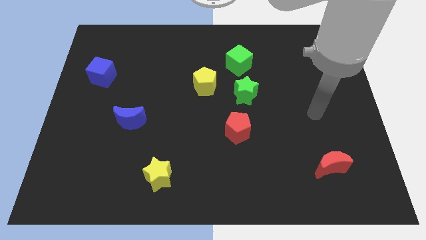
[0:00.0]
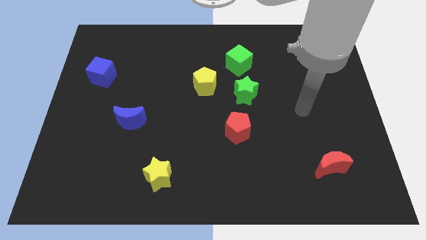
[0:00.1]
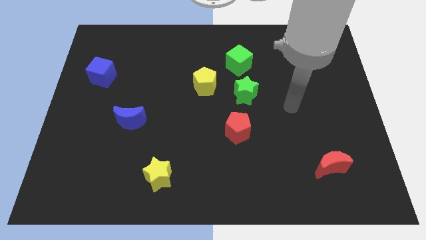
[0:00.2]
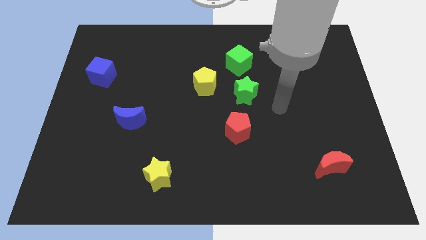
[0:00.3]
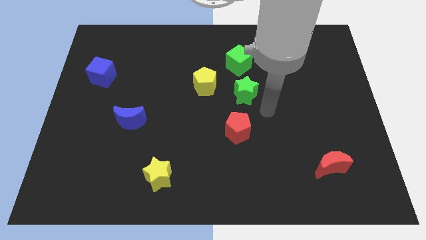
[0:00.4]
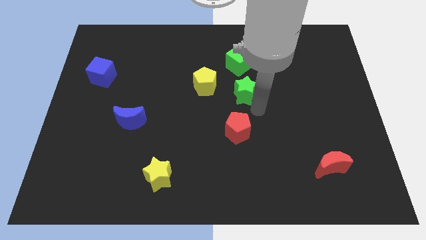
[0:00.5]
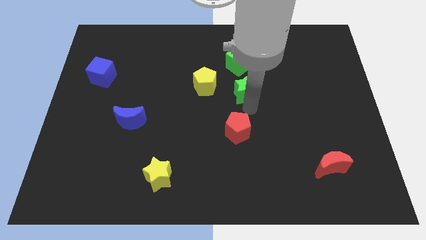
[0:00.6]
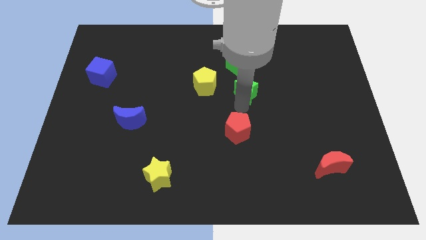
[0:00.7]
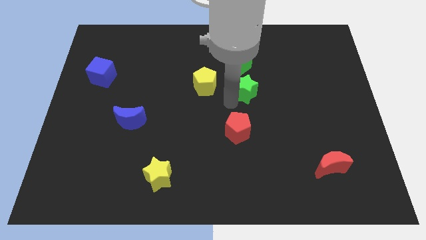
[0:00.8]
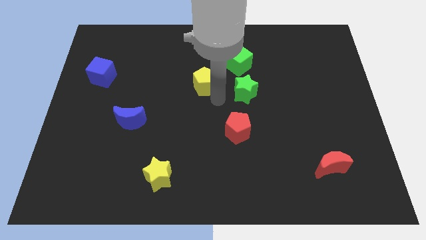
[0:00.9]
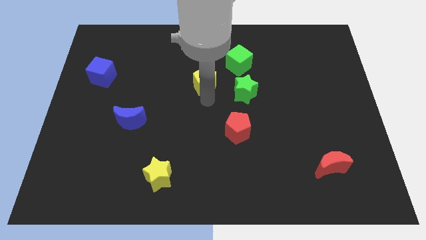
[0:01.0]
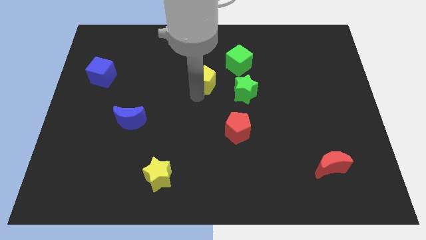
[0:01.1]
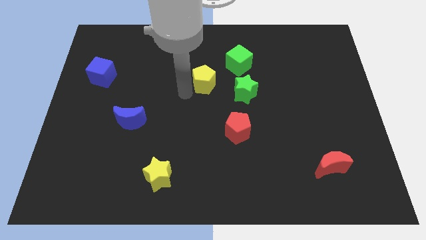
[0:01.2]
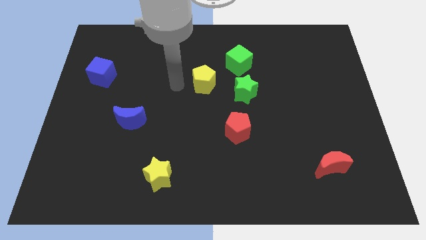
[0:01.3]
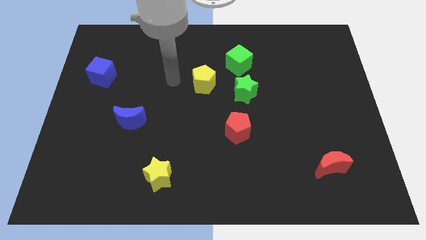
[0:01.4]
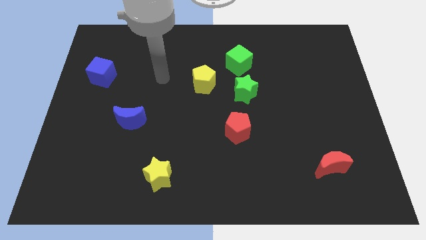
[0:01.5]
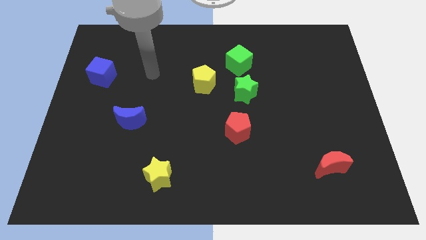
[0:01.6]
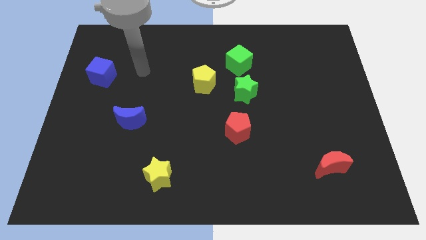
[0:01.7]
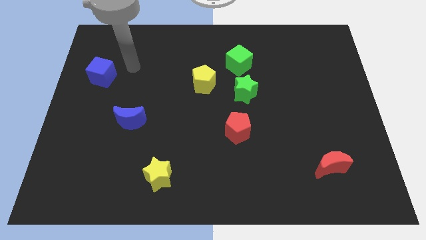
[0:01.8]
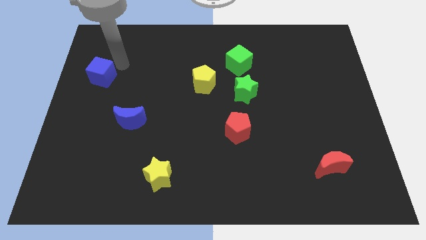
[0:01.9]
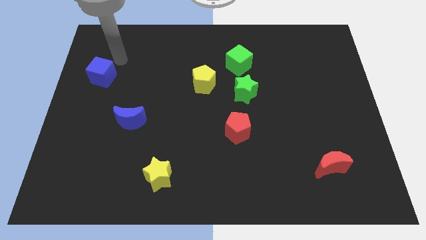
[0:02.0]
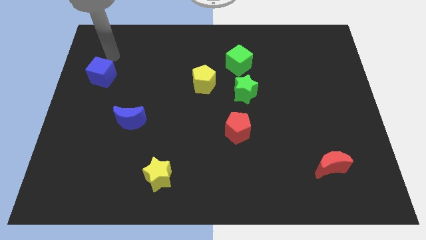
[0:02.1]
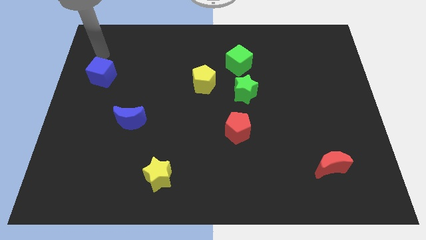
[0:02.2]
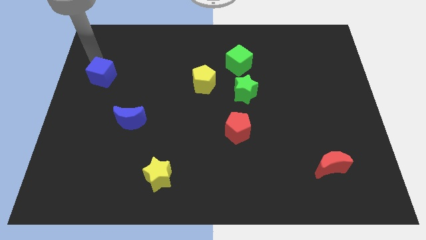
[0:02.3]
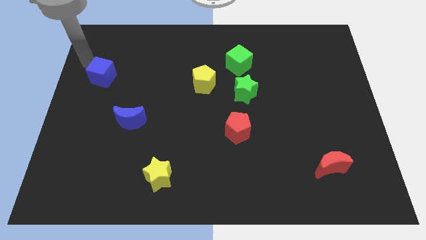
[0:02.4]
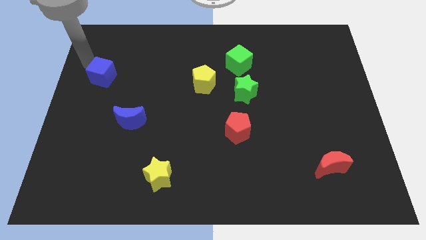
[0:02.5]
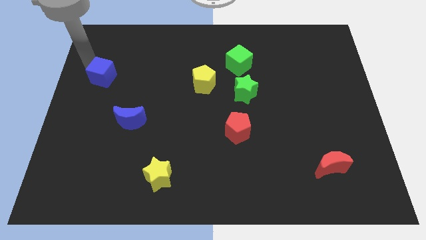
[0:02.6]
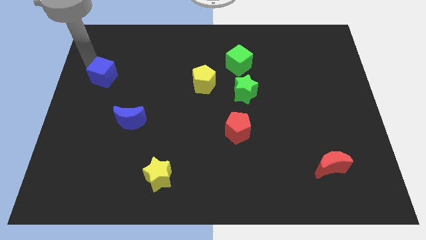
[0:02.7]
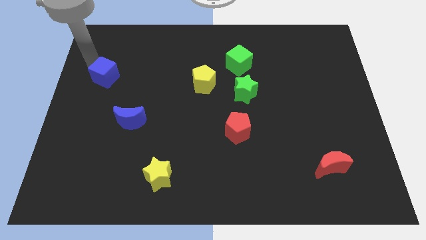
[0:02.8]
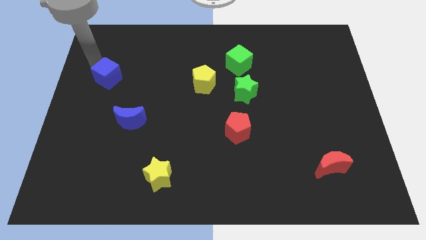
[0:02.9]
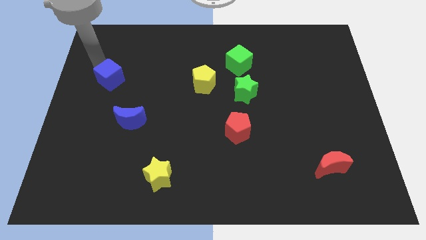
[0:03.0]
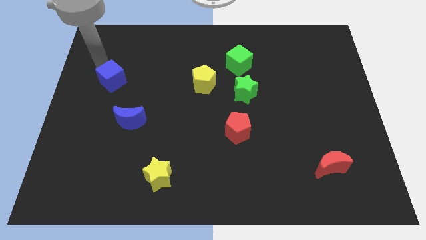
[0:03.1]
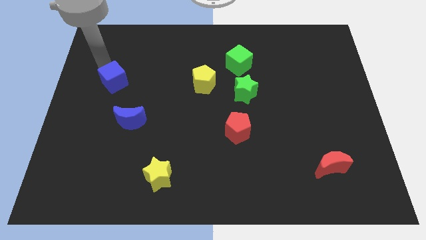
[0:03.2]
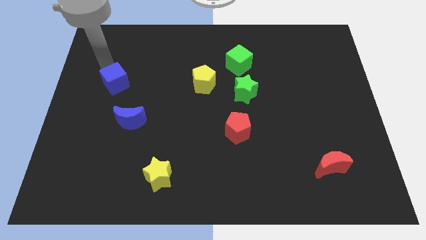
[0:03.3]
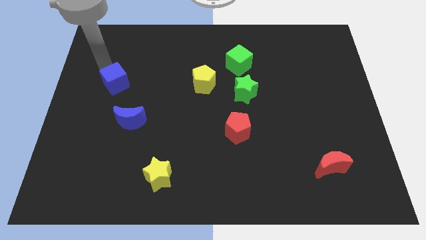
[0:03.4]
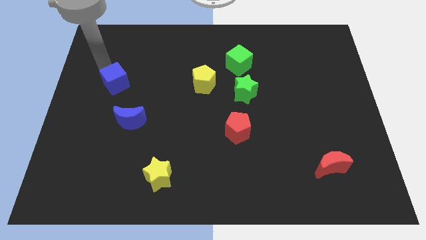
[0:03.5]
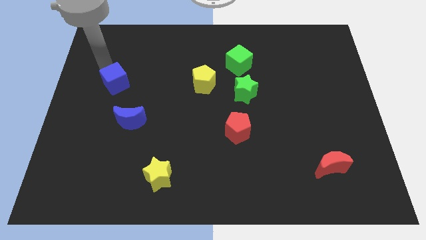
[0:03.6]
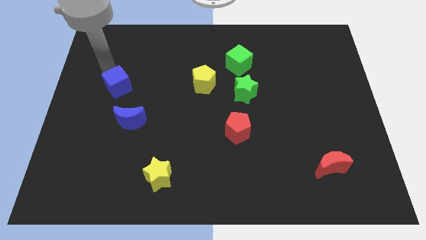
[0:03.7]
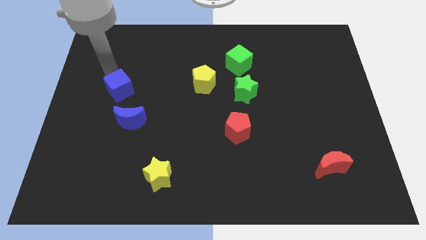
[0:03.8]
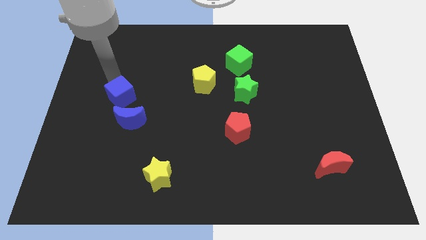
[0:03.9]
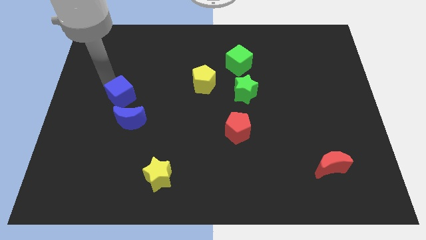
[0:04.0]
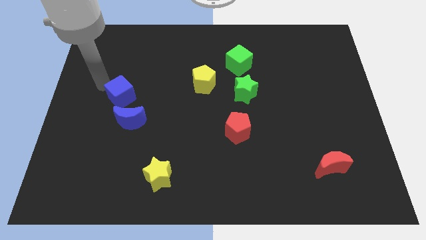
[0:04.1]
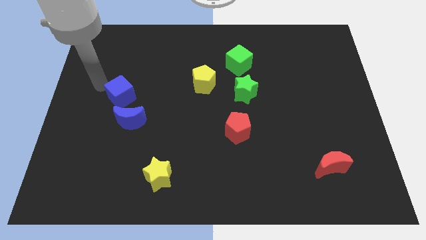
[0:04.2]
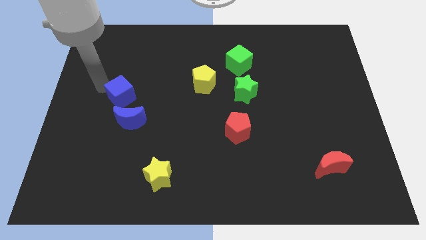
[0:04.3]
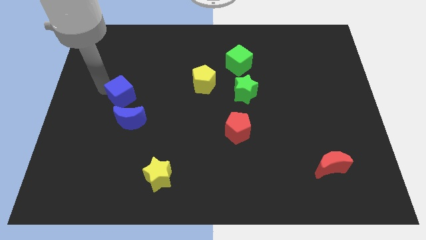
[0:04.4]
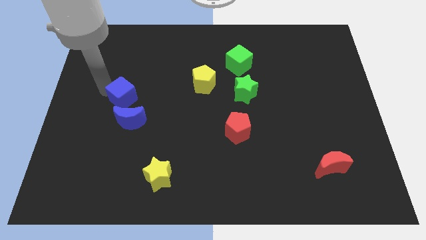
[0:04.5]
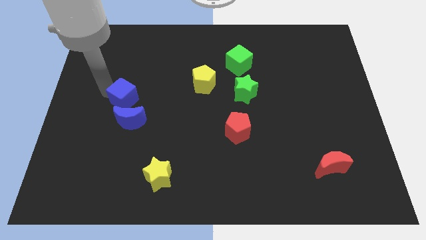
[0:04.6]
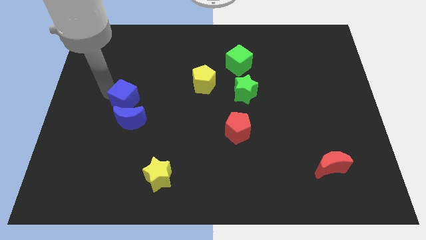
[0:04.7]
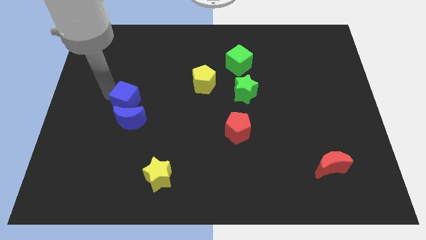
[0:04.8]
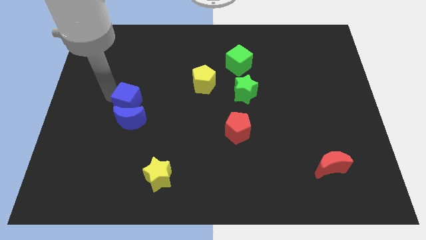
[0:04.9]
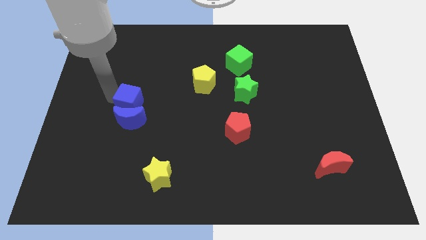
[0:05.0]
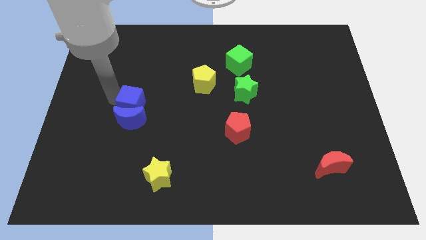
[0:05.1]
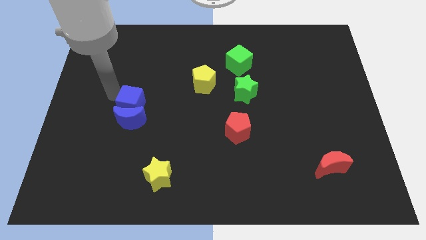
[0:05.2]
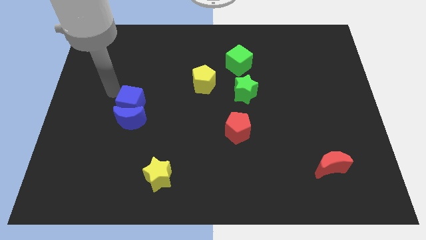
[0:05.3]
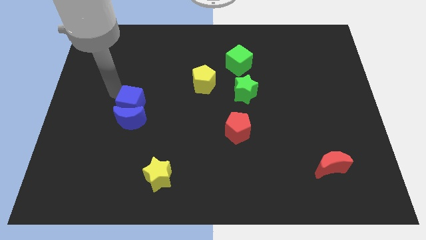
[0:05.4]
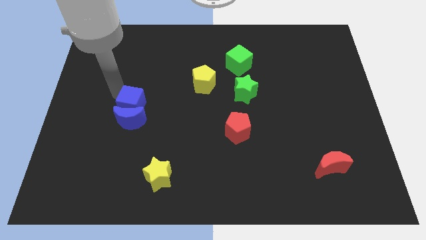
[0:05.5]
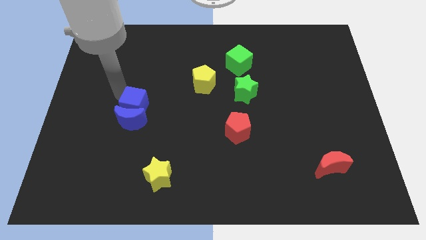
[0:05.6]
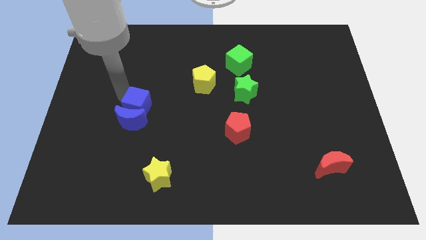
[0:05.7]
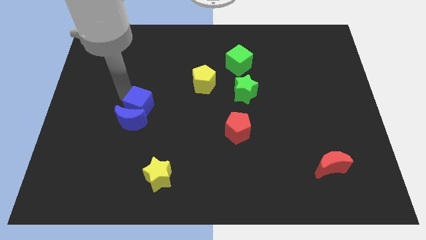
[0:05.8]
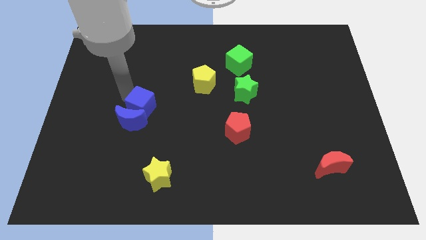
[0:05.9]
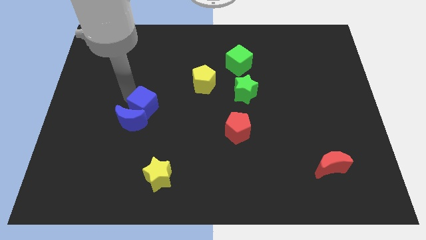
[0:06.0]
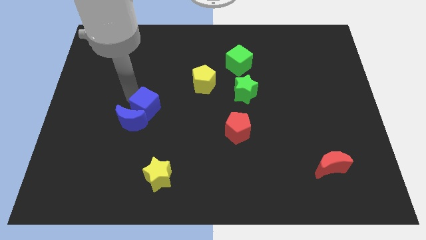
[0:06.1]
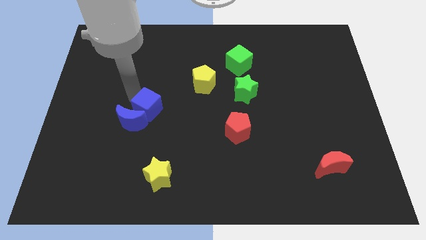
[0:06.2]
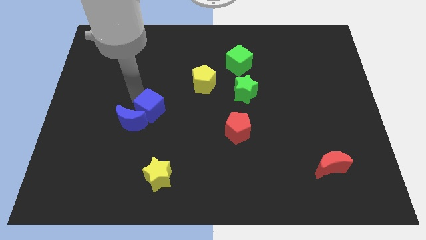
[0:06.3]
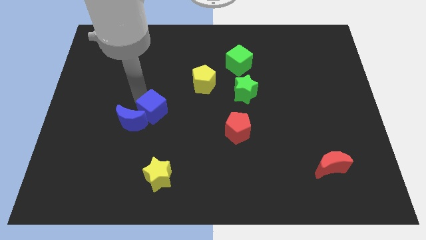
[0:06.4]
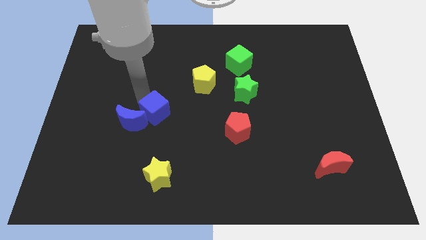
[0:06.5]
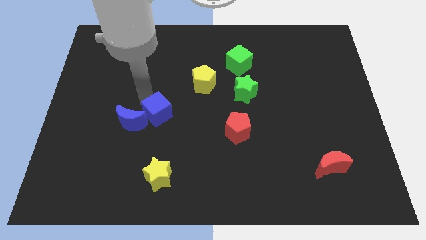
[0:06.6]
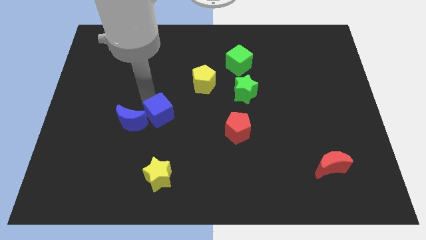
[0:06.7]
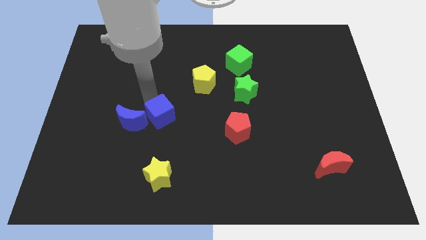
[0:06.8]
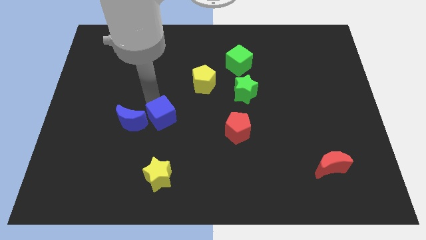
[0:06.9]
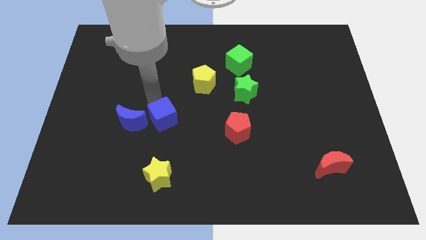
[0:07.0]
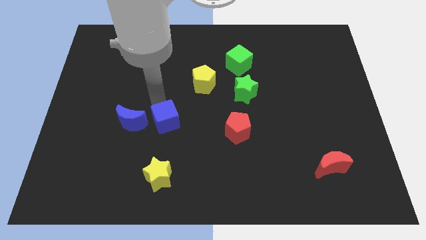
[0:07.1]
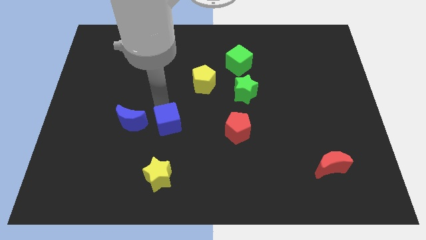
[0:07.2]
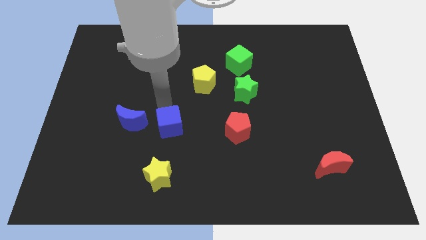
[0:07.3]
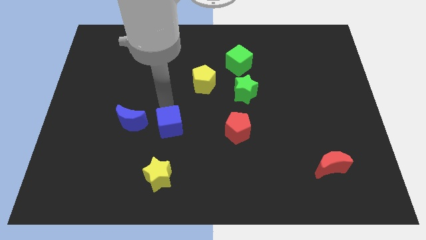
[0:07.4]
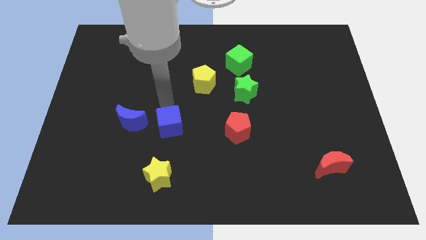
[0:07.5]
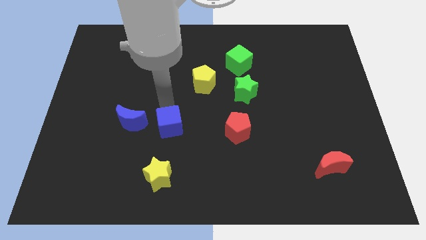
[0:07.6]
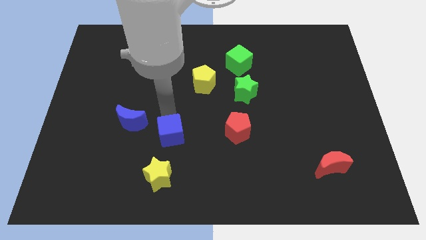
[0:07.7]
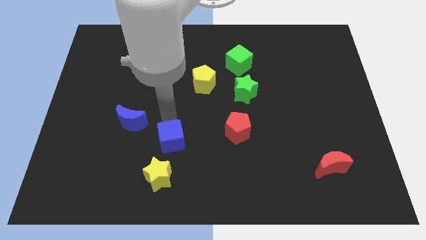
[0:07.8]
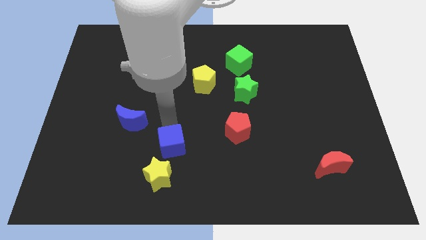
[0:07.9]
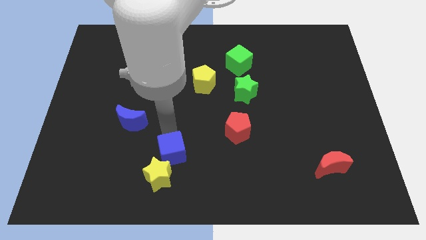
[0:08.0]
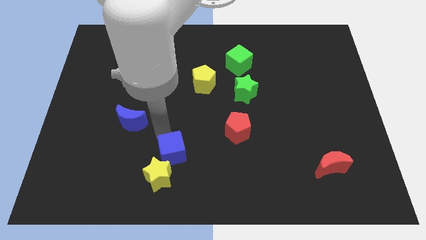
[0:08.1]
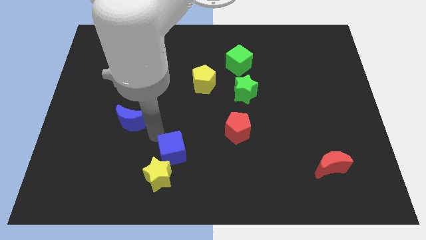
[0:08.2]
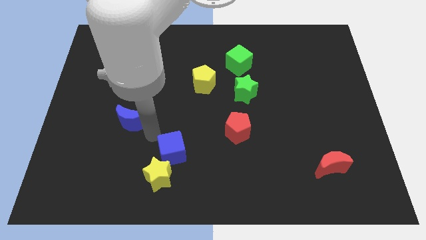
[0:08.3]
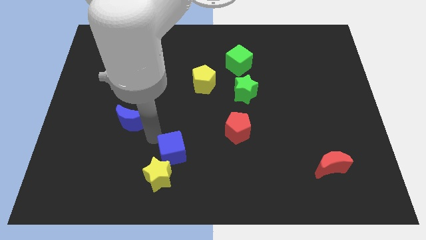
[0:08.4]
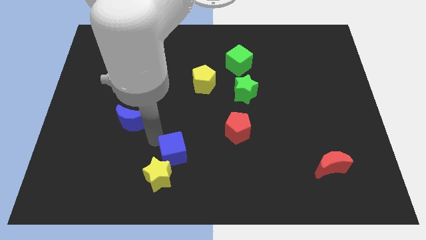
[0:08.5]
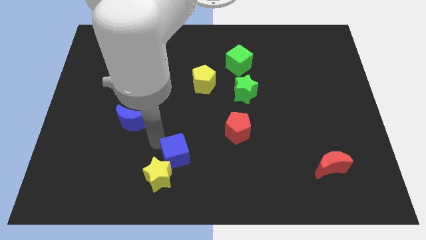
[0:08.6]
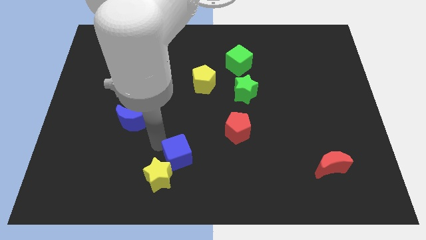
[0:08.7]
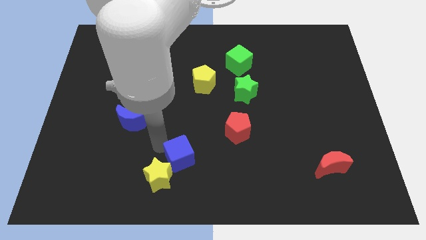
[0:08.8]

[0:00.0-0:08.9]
put the blue cube just right of the yellow star
